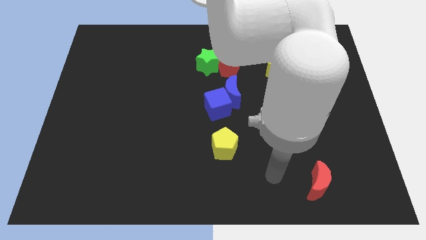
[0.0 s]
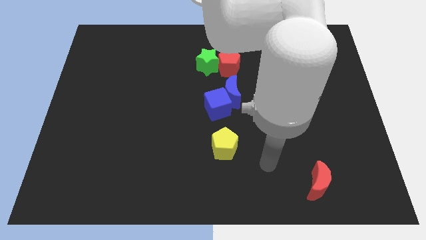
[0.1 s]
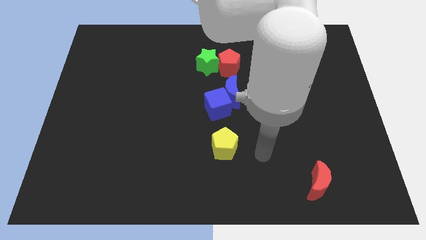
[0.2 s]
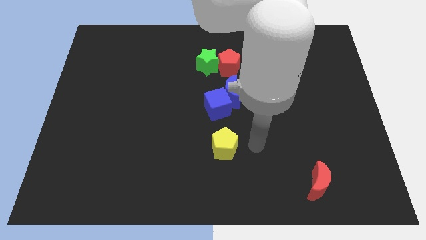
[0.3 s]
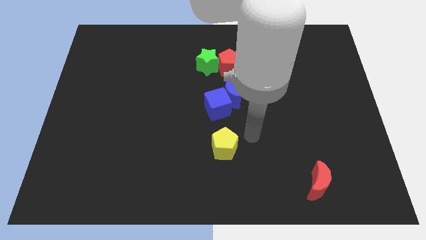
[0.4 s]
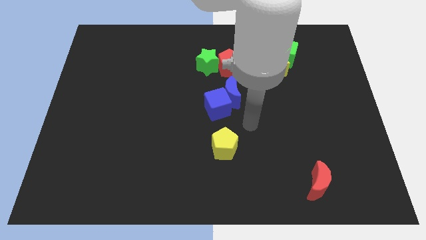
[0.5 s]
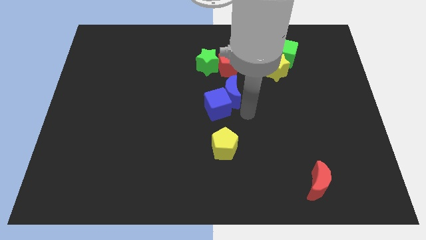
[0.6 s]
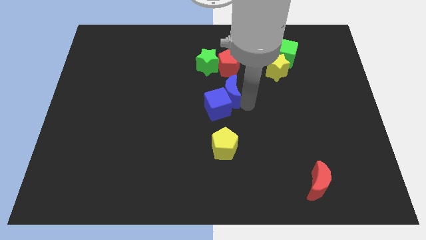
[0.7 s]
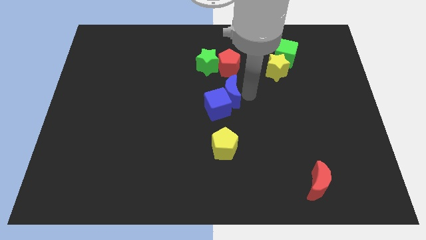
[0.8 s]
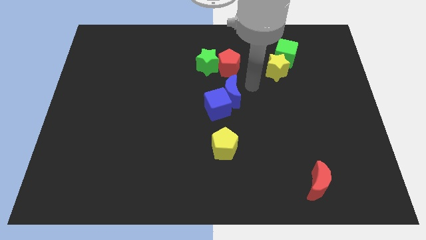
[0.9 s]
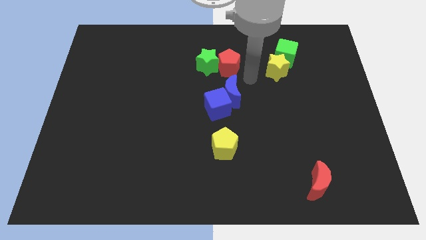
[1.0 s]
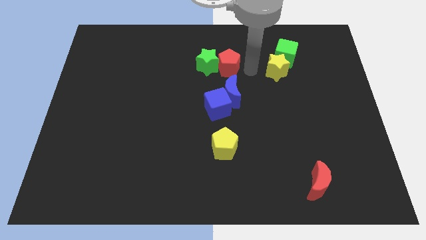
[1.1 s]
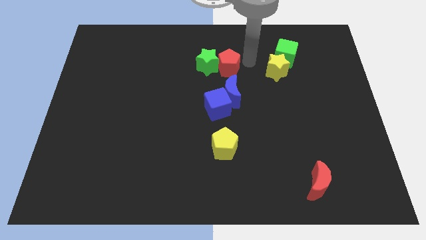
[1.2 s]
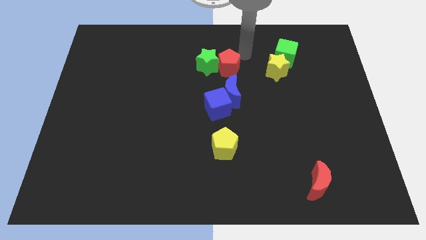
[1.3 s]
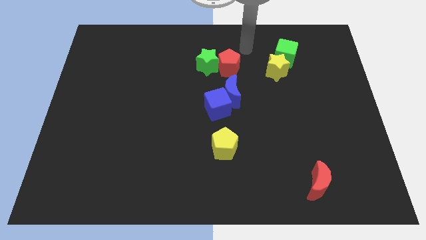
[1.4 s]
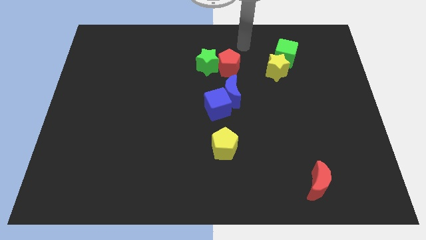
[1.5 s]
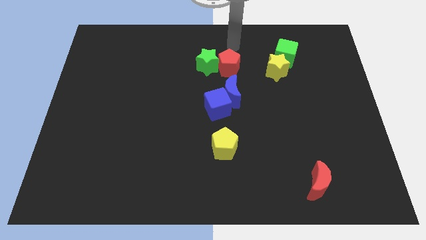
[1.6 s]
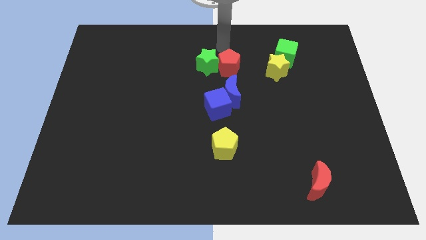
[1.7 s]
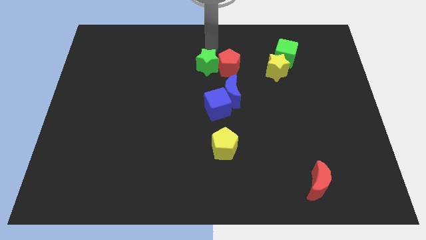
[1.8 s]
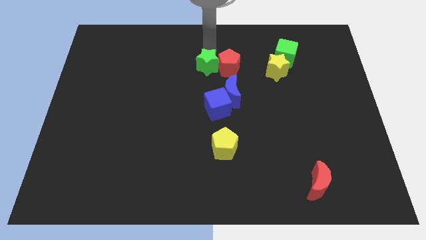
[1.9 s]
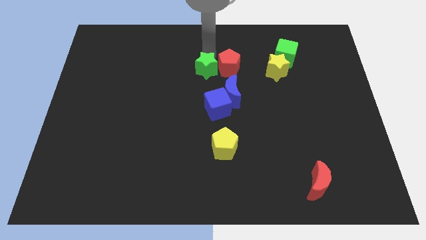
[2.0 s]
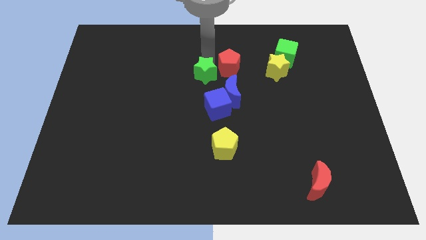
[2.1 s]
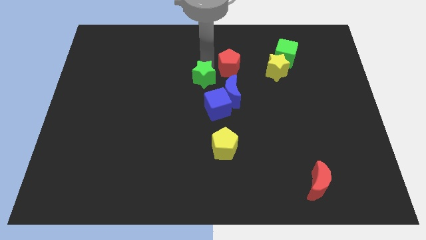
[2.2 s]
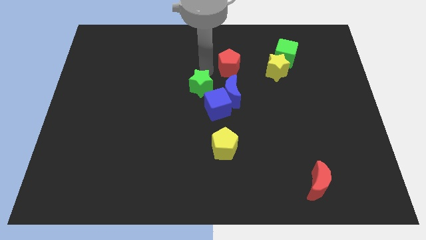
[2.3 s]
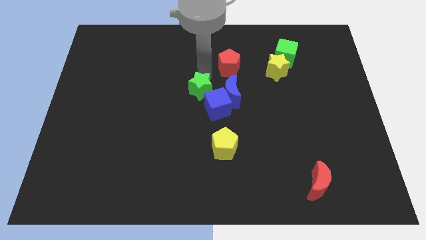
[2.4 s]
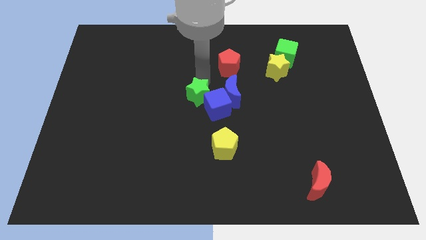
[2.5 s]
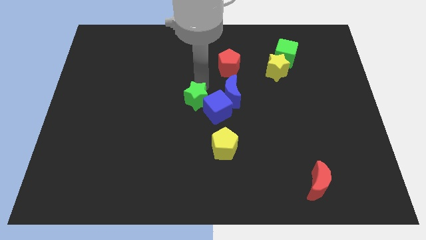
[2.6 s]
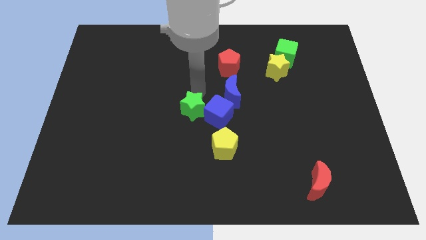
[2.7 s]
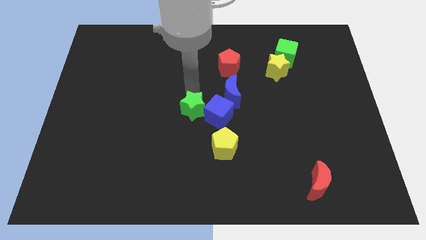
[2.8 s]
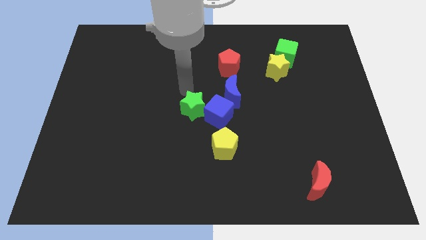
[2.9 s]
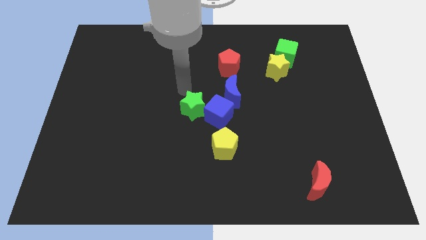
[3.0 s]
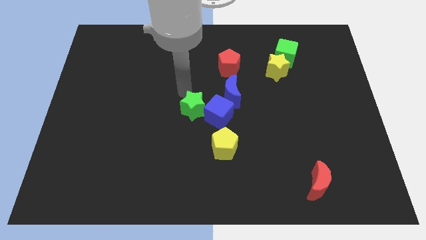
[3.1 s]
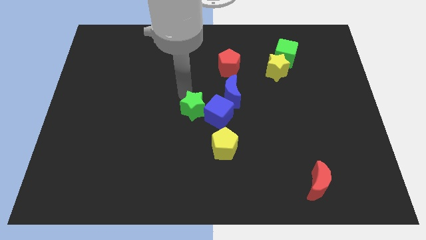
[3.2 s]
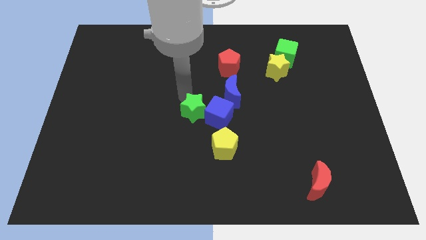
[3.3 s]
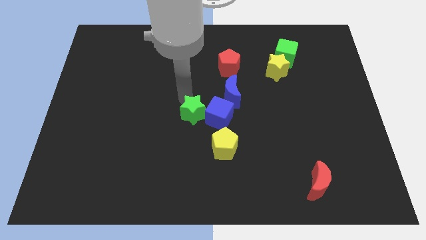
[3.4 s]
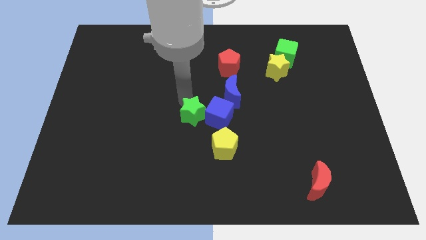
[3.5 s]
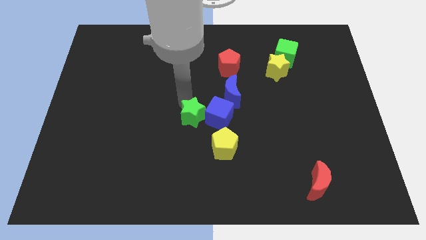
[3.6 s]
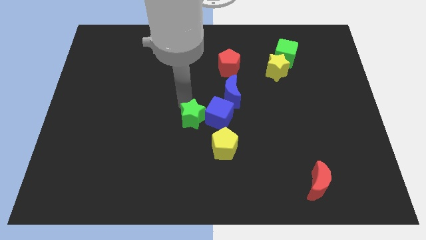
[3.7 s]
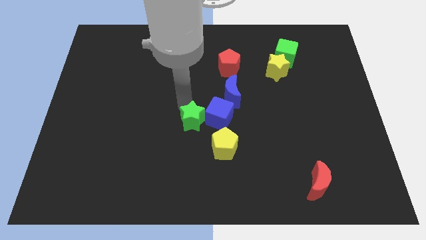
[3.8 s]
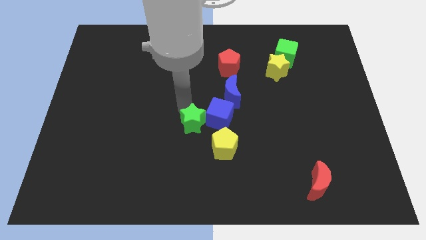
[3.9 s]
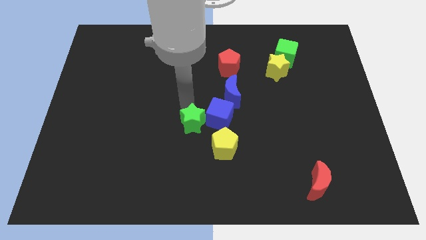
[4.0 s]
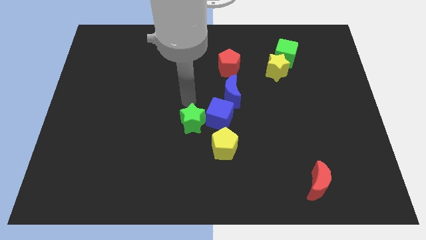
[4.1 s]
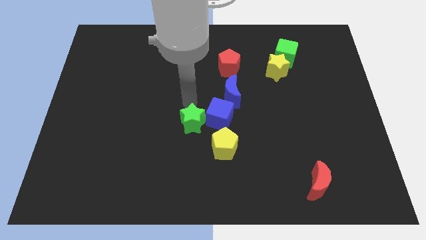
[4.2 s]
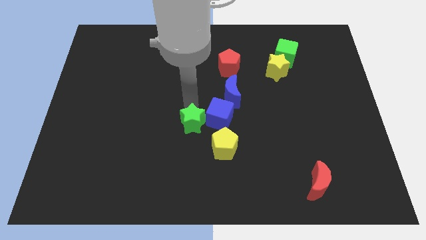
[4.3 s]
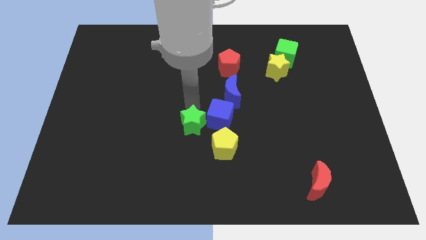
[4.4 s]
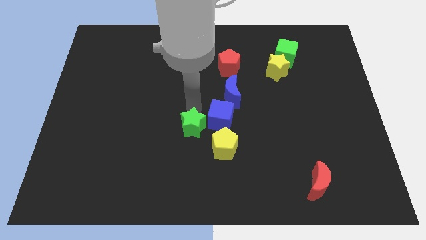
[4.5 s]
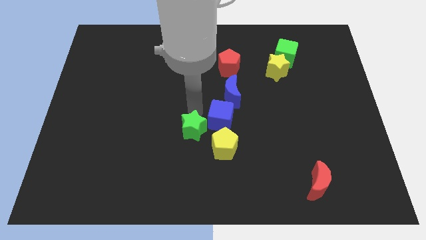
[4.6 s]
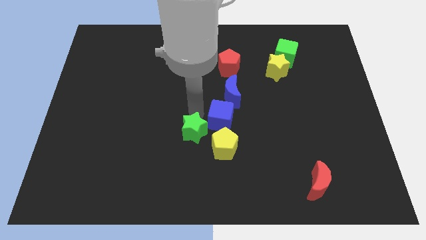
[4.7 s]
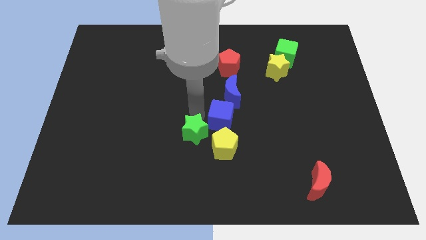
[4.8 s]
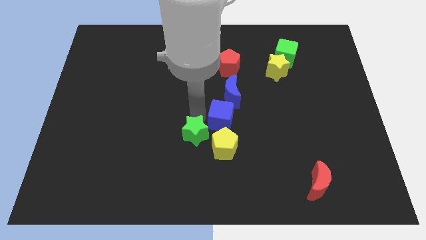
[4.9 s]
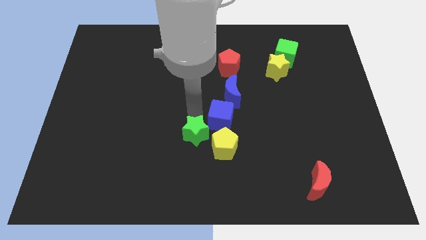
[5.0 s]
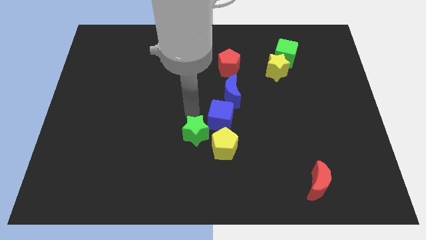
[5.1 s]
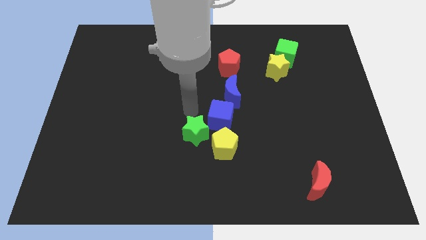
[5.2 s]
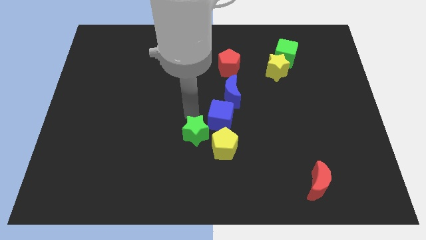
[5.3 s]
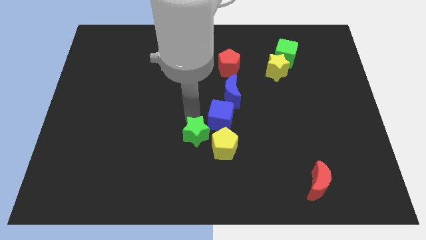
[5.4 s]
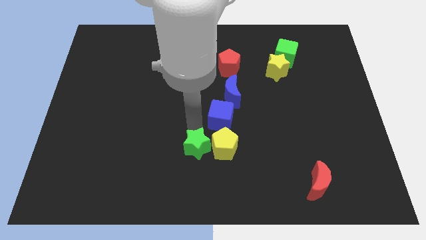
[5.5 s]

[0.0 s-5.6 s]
push the green star to the bottom left of the yellow pentagon

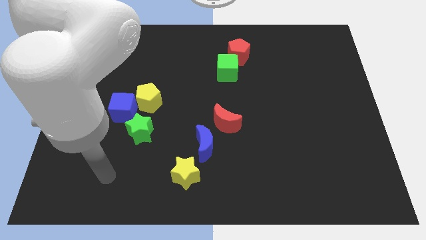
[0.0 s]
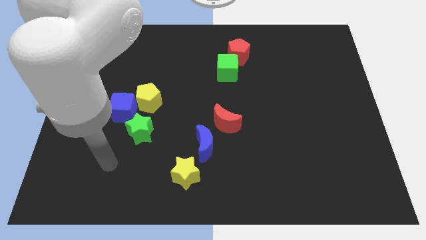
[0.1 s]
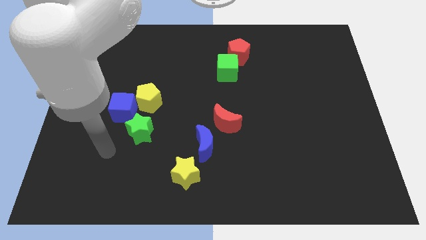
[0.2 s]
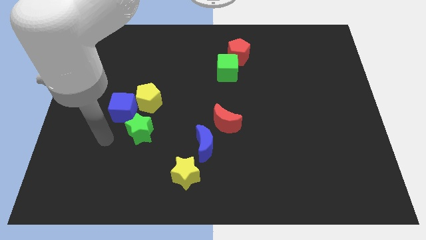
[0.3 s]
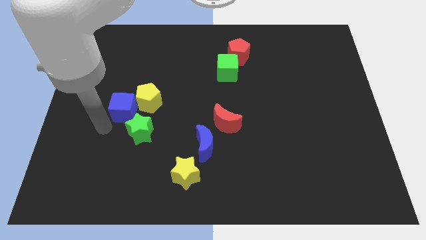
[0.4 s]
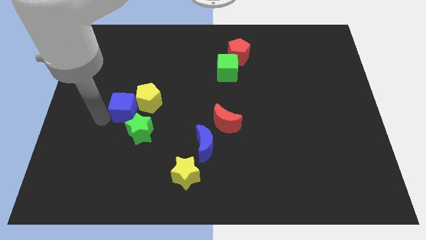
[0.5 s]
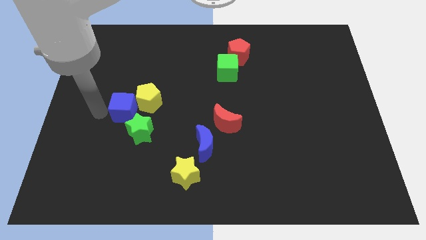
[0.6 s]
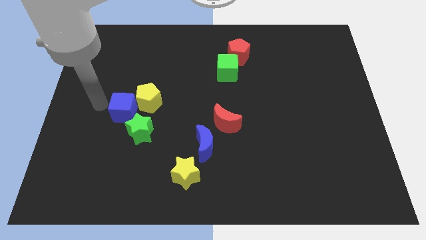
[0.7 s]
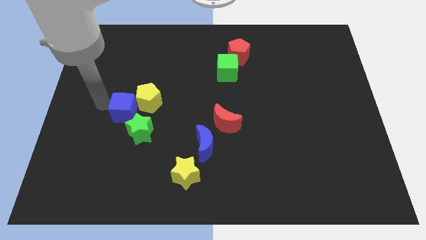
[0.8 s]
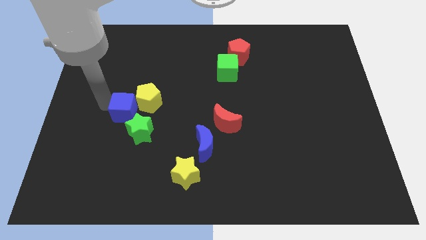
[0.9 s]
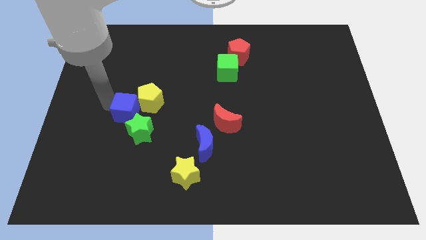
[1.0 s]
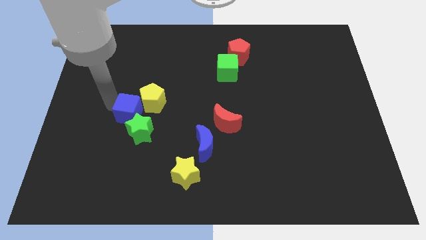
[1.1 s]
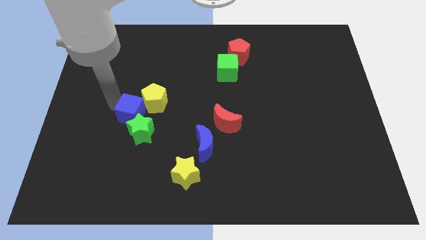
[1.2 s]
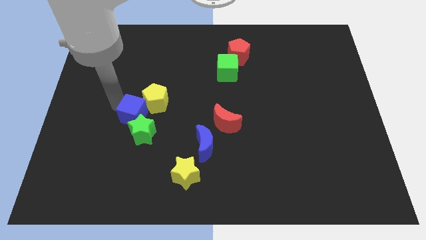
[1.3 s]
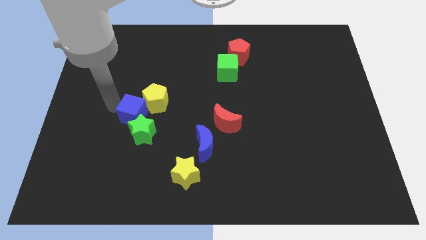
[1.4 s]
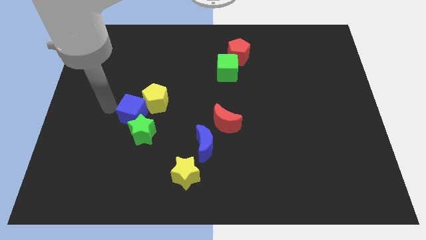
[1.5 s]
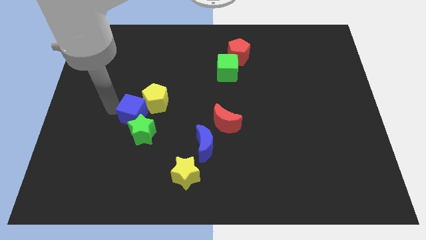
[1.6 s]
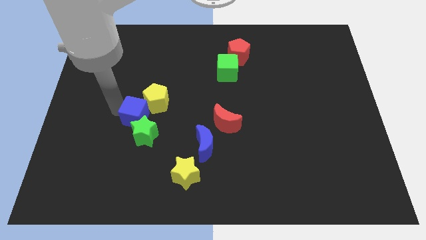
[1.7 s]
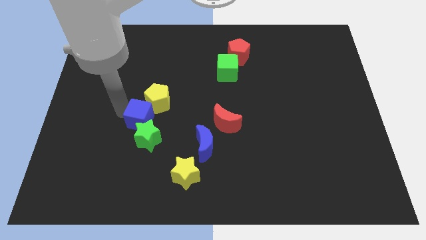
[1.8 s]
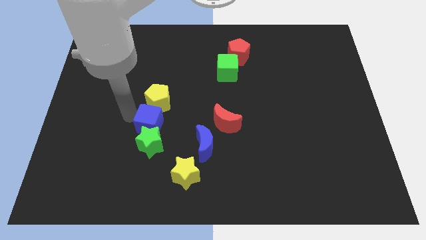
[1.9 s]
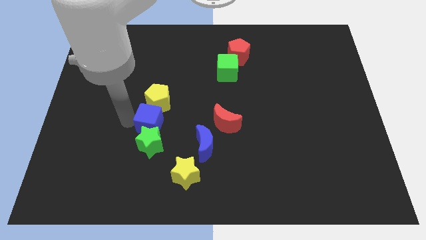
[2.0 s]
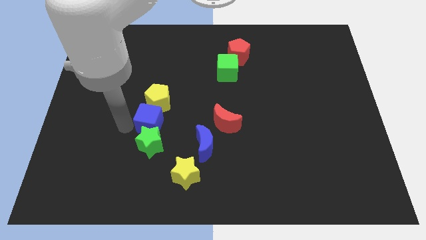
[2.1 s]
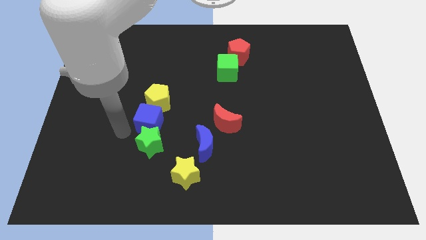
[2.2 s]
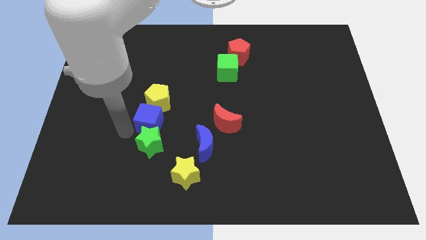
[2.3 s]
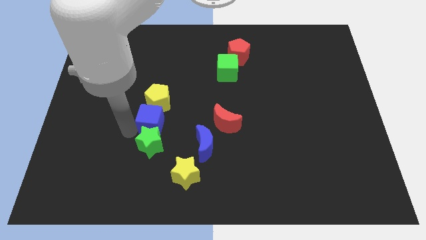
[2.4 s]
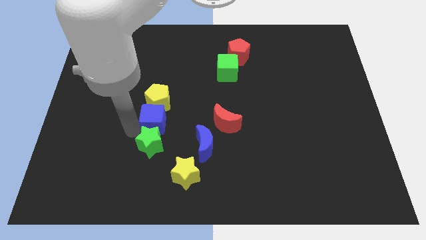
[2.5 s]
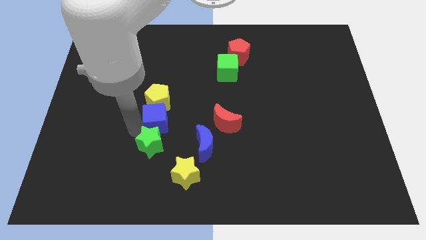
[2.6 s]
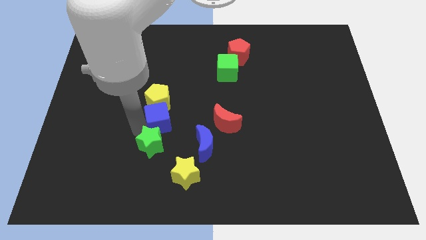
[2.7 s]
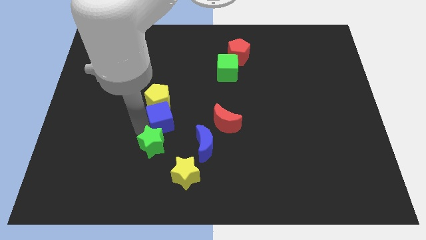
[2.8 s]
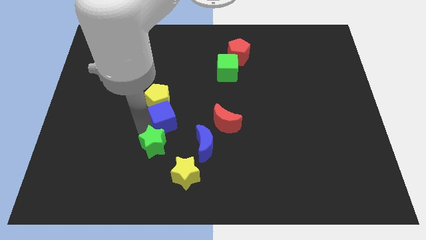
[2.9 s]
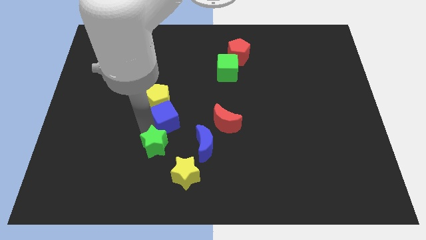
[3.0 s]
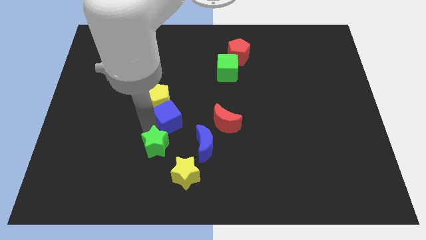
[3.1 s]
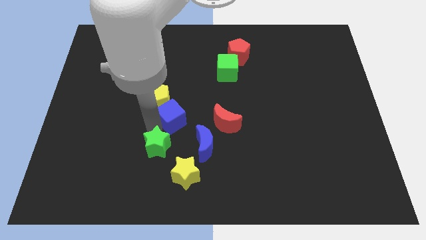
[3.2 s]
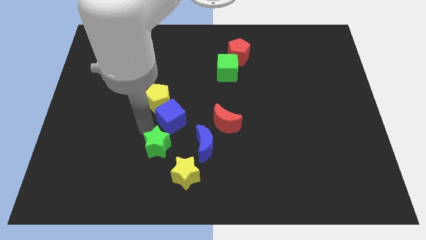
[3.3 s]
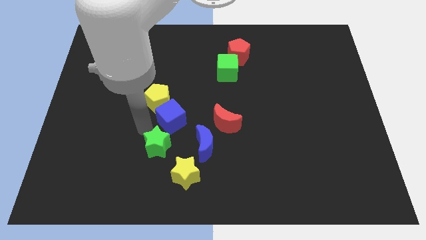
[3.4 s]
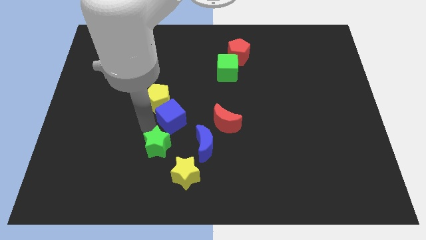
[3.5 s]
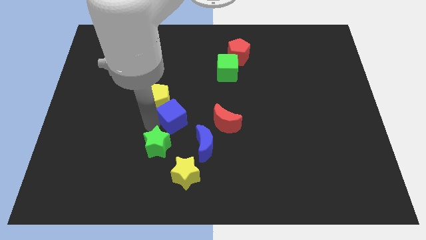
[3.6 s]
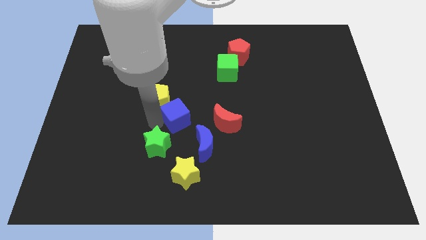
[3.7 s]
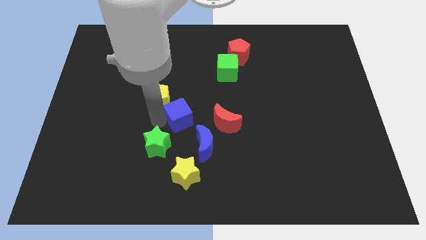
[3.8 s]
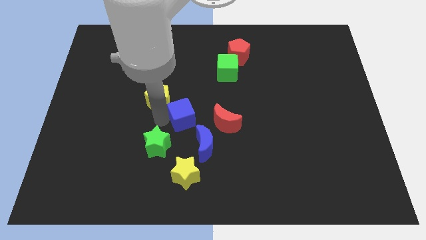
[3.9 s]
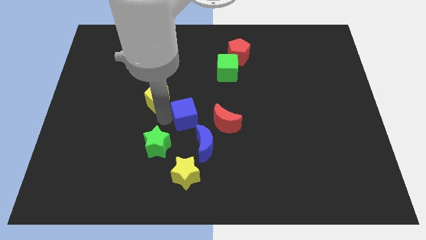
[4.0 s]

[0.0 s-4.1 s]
move the blue cube to the top of the blue moon
